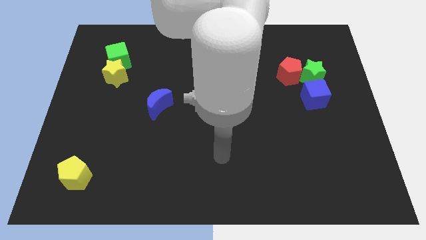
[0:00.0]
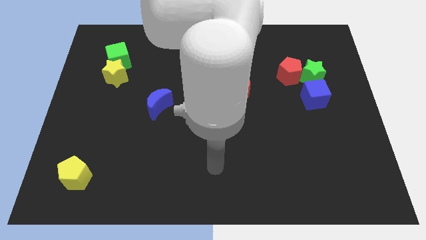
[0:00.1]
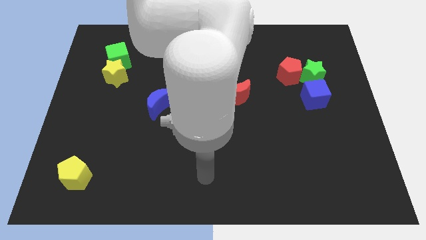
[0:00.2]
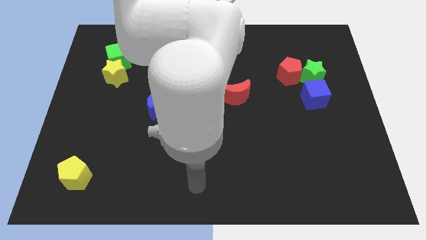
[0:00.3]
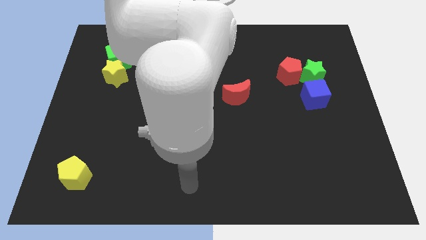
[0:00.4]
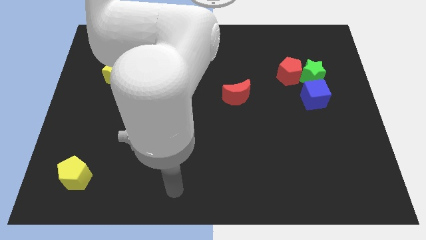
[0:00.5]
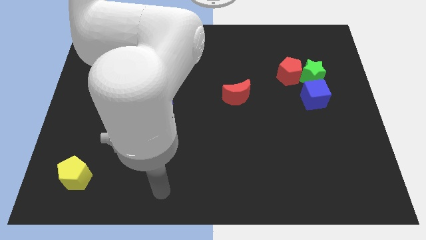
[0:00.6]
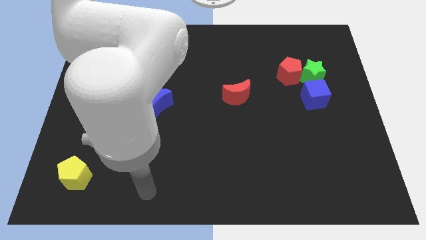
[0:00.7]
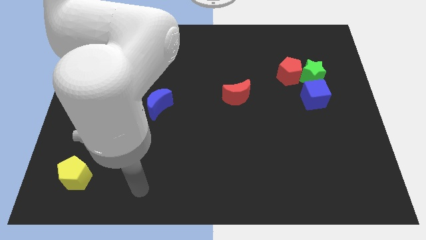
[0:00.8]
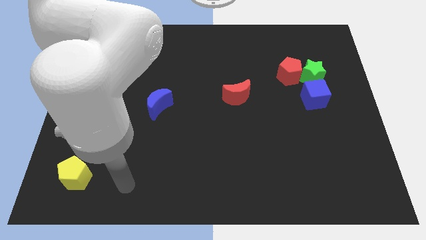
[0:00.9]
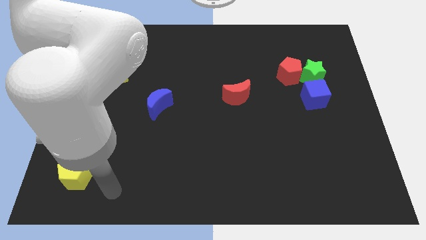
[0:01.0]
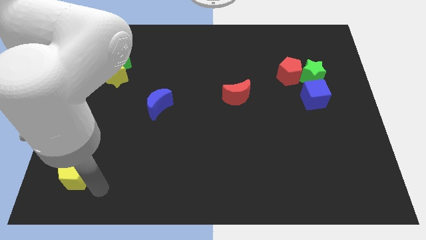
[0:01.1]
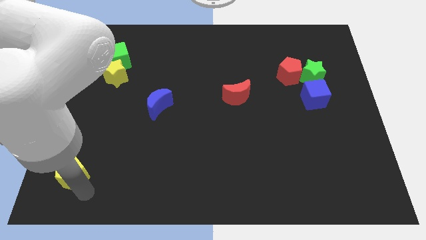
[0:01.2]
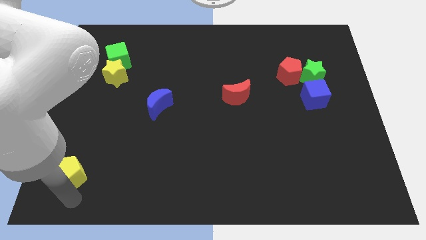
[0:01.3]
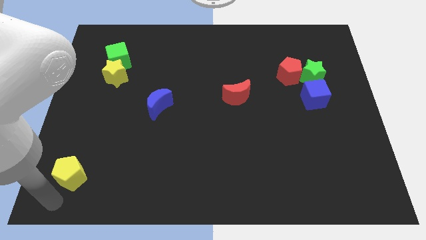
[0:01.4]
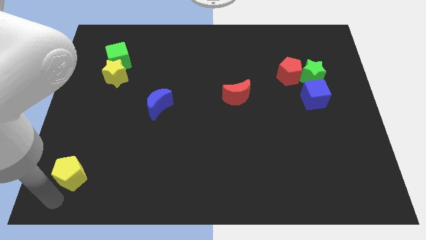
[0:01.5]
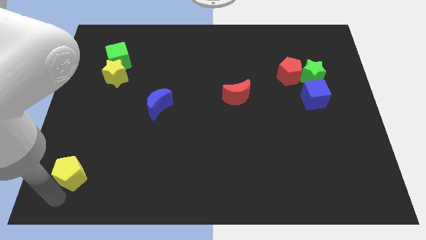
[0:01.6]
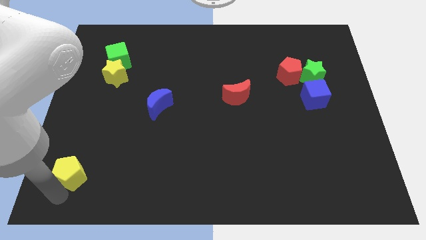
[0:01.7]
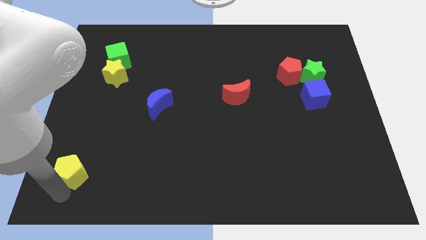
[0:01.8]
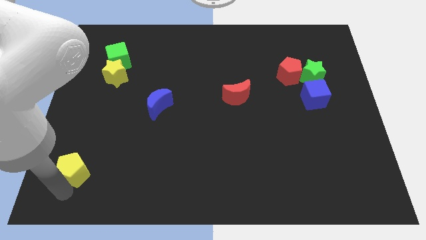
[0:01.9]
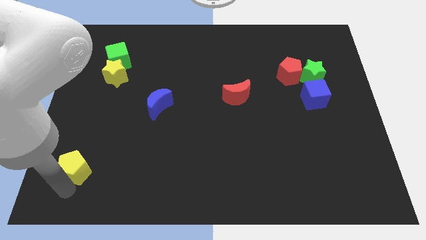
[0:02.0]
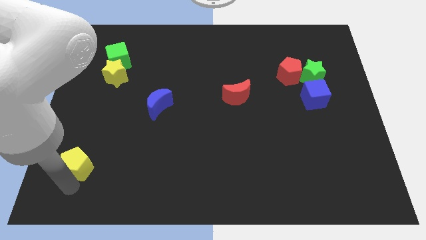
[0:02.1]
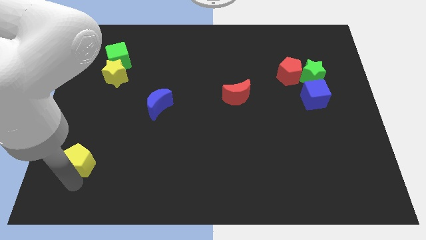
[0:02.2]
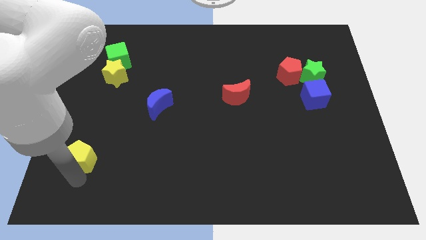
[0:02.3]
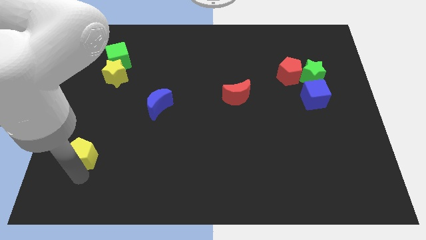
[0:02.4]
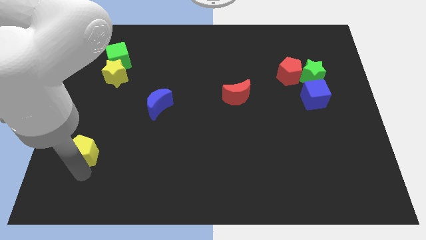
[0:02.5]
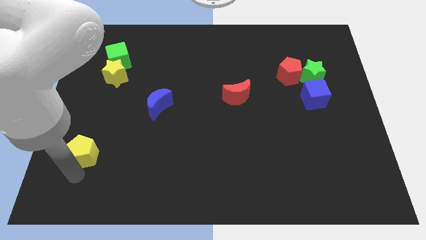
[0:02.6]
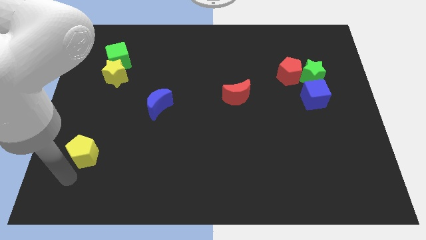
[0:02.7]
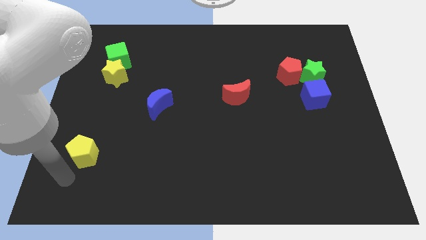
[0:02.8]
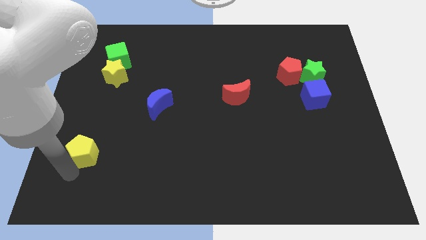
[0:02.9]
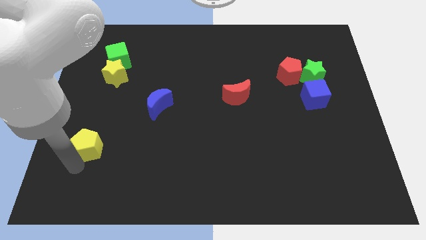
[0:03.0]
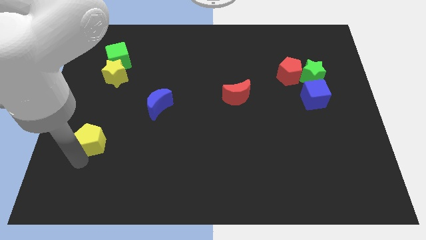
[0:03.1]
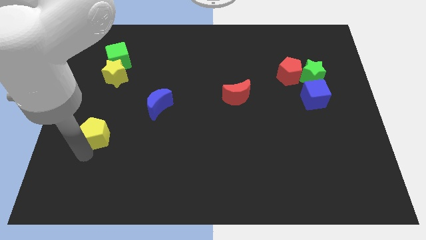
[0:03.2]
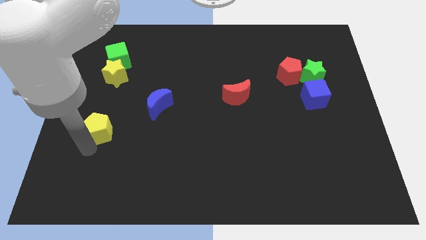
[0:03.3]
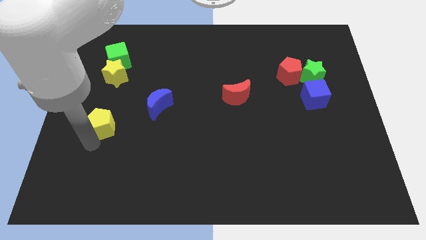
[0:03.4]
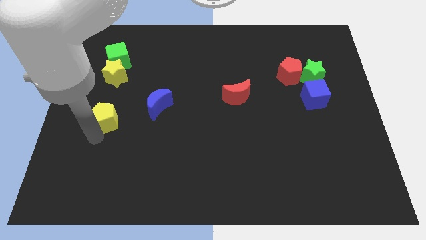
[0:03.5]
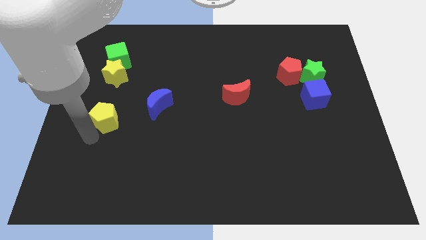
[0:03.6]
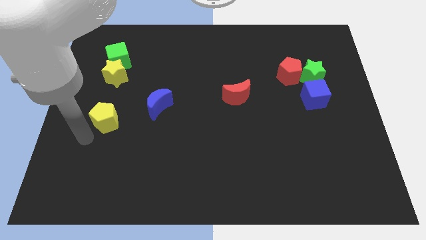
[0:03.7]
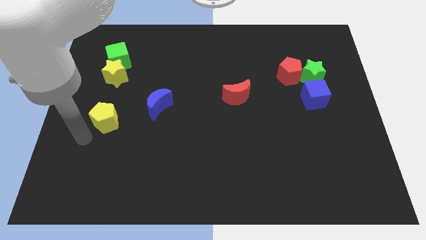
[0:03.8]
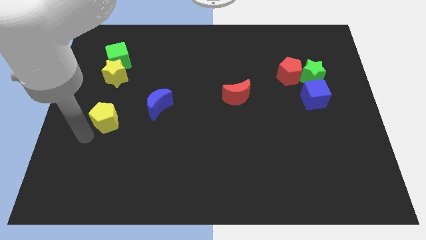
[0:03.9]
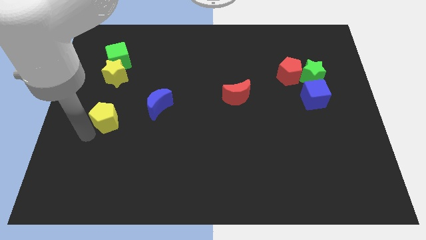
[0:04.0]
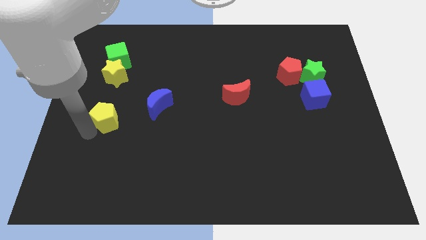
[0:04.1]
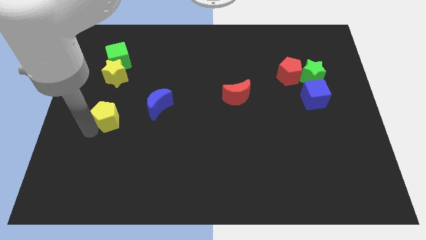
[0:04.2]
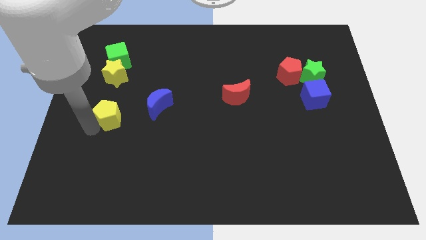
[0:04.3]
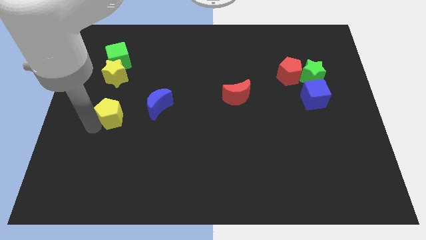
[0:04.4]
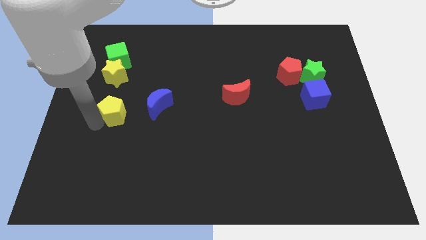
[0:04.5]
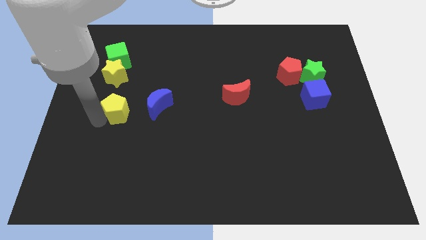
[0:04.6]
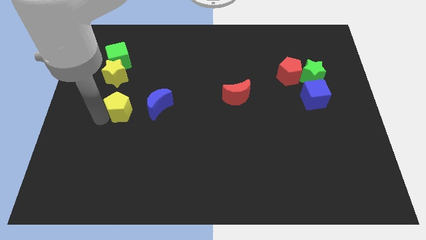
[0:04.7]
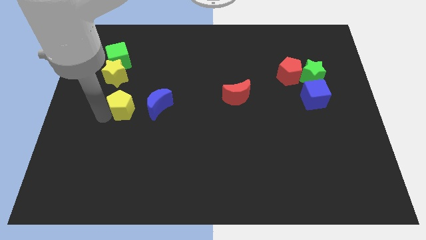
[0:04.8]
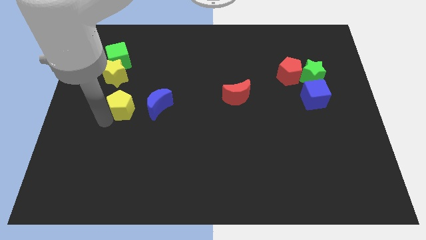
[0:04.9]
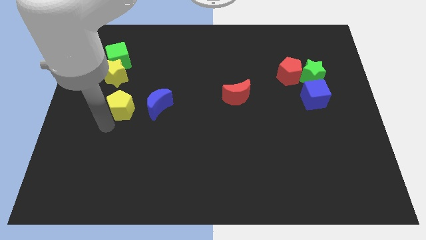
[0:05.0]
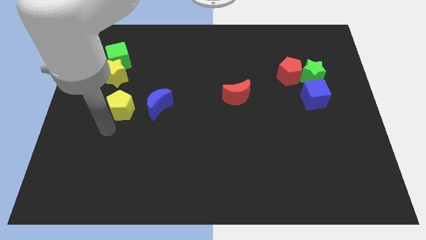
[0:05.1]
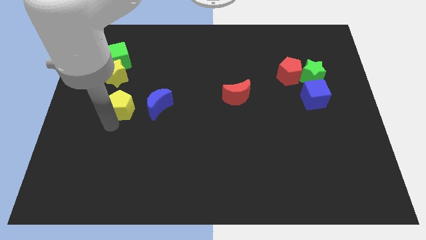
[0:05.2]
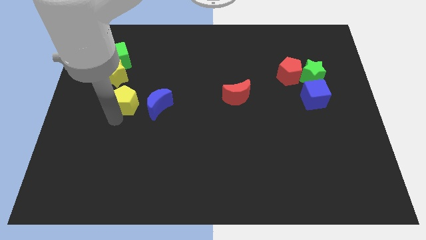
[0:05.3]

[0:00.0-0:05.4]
put the yellow pentagon to the bottom right side of the yellow star

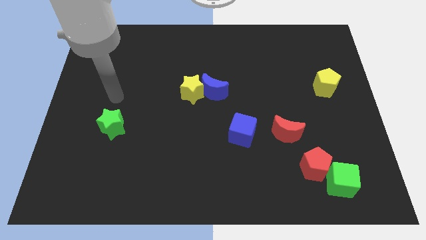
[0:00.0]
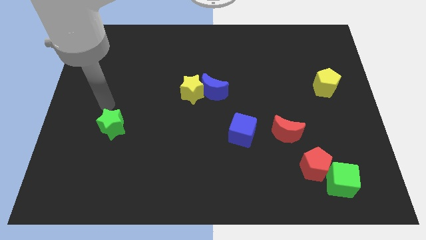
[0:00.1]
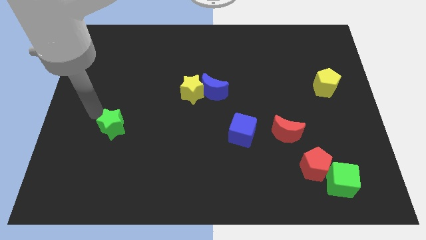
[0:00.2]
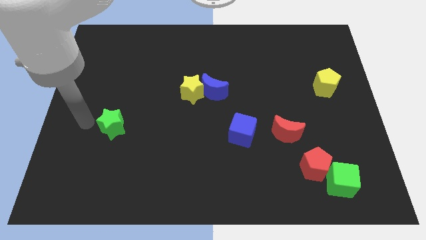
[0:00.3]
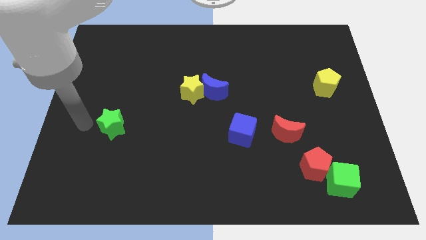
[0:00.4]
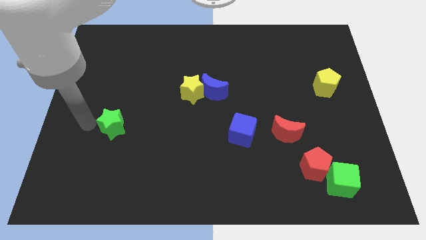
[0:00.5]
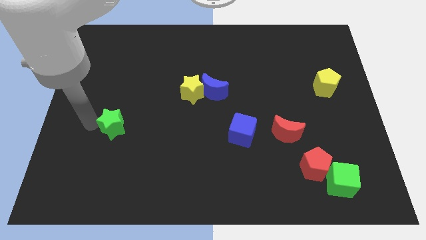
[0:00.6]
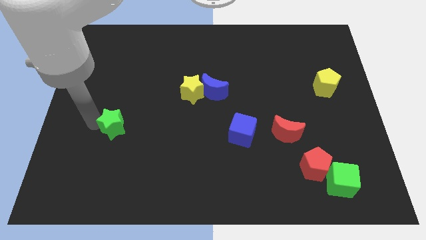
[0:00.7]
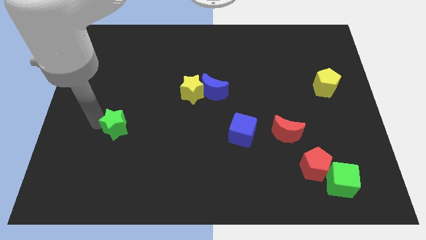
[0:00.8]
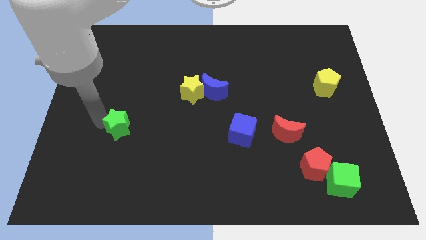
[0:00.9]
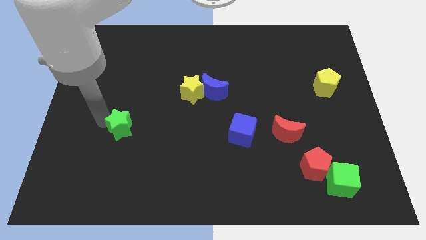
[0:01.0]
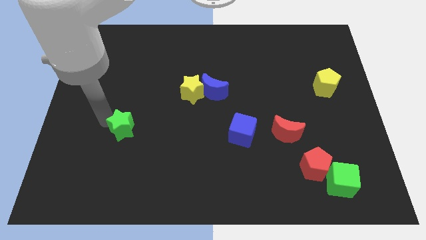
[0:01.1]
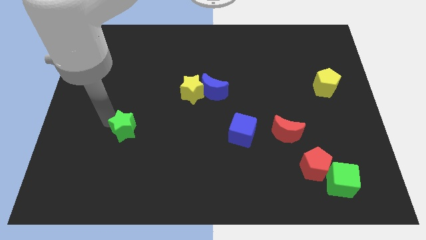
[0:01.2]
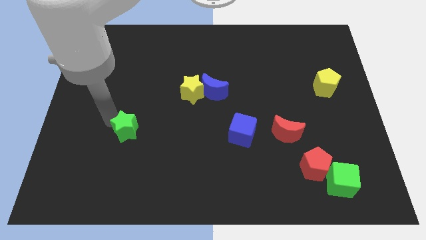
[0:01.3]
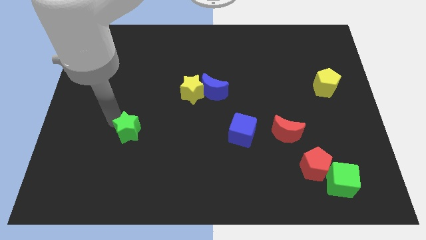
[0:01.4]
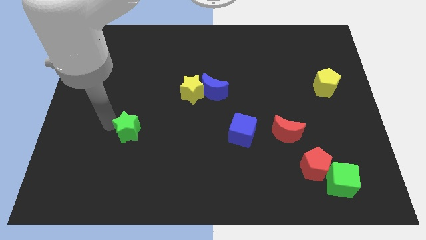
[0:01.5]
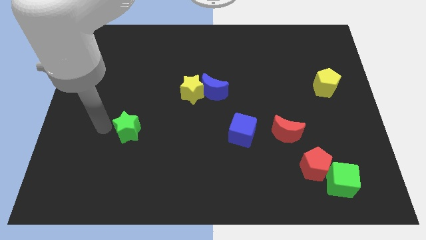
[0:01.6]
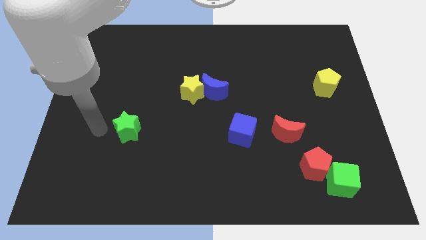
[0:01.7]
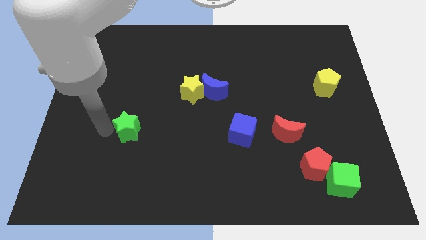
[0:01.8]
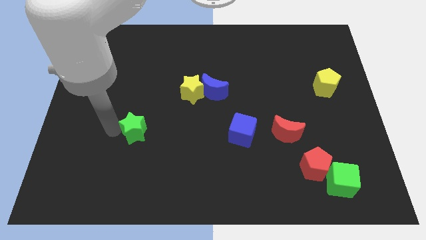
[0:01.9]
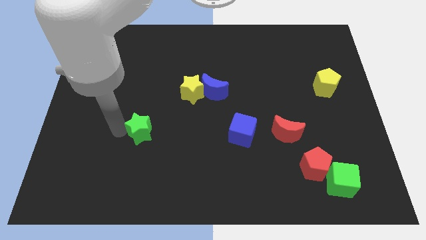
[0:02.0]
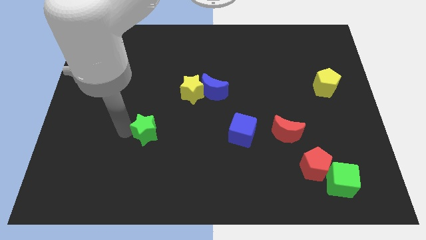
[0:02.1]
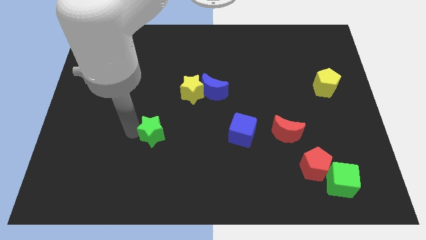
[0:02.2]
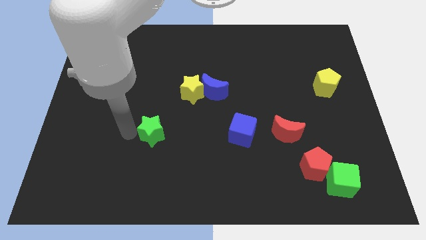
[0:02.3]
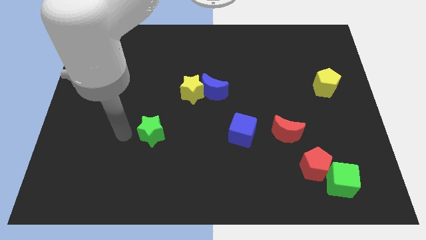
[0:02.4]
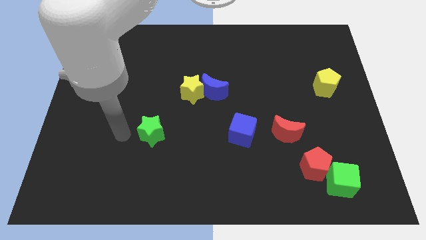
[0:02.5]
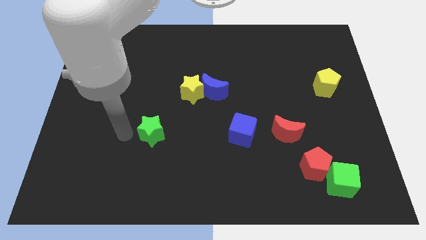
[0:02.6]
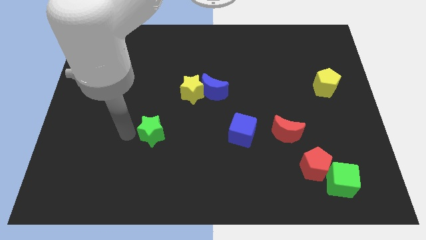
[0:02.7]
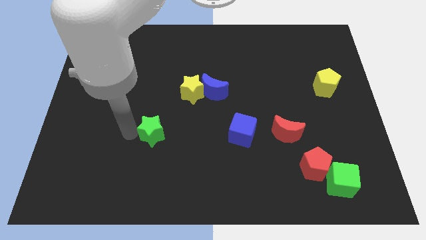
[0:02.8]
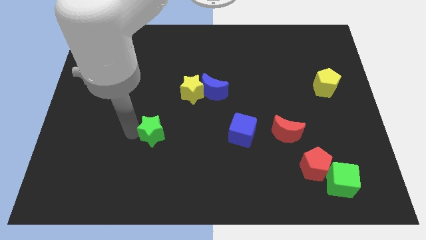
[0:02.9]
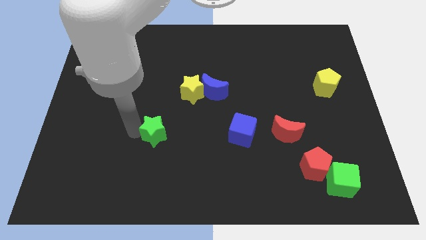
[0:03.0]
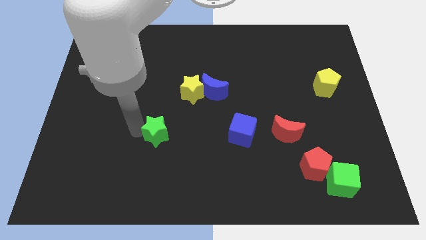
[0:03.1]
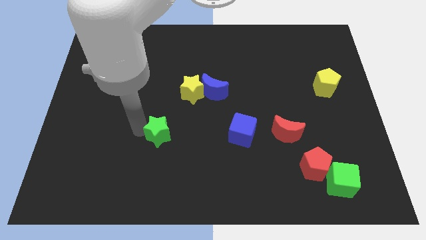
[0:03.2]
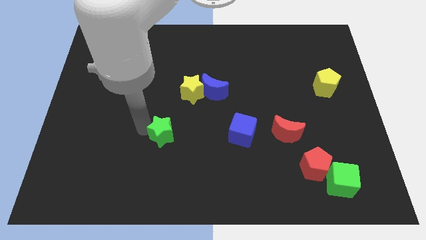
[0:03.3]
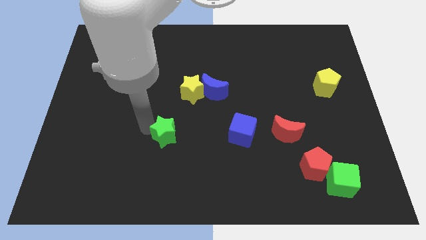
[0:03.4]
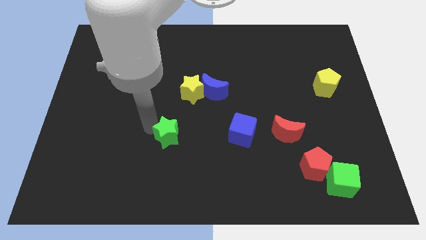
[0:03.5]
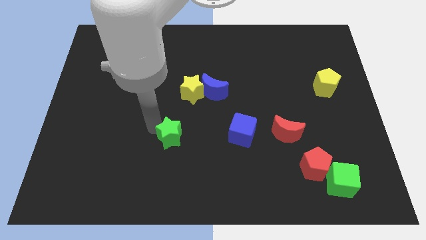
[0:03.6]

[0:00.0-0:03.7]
slide the green star just left of the blue cube
